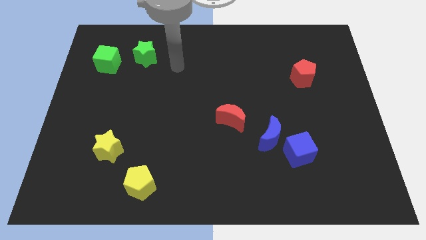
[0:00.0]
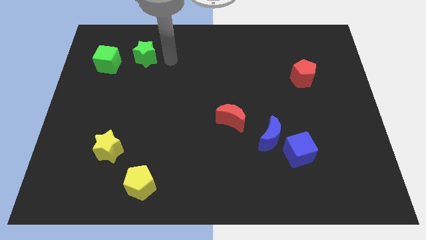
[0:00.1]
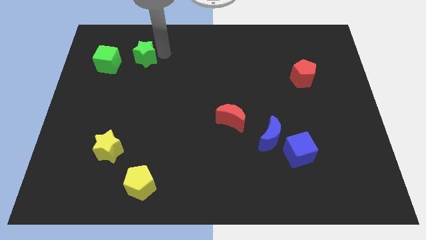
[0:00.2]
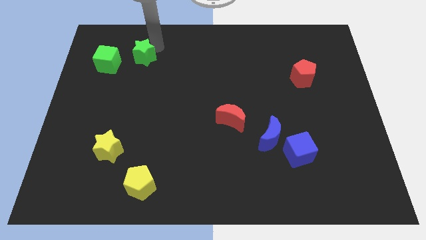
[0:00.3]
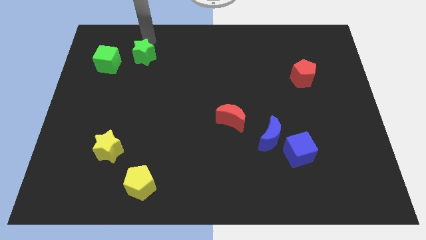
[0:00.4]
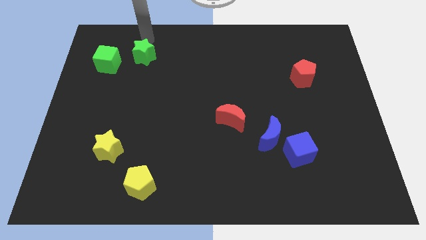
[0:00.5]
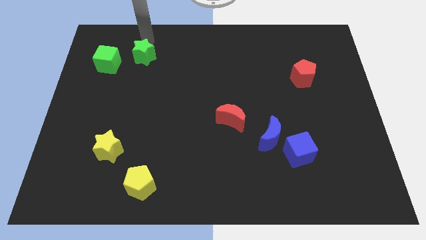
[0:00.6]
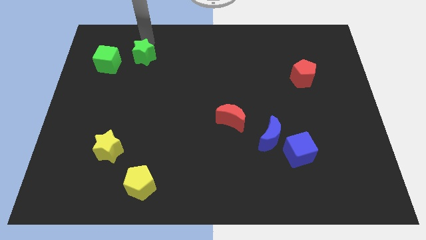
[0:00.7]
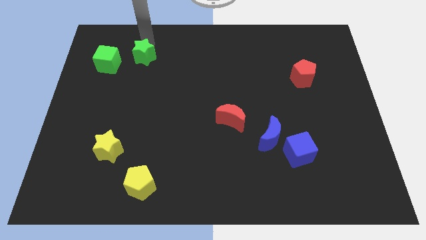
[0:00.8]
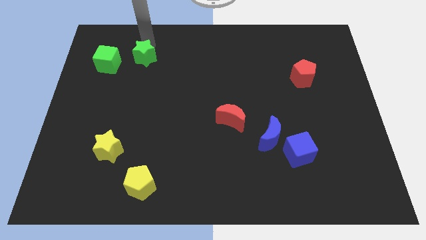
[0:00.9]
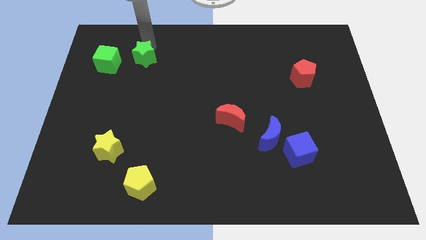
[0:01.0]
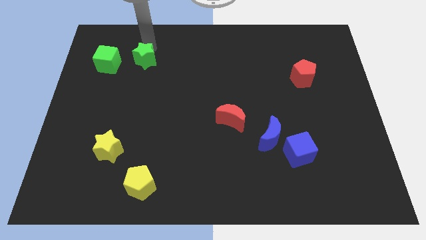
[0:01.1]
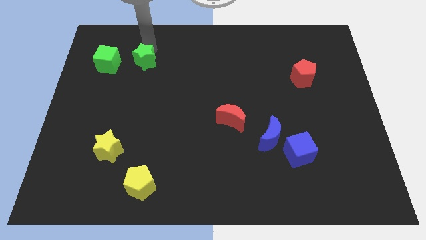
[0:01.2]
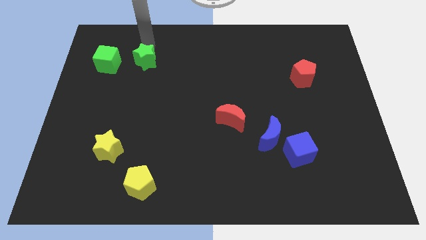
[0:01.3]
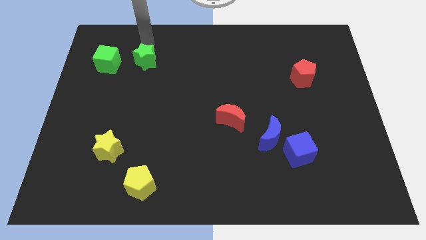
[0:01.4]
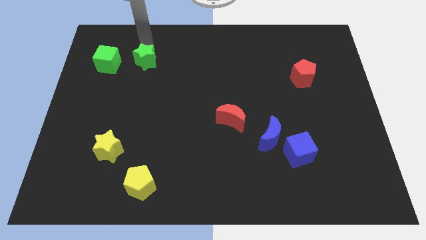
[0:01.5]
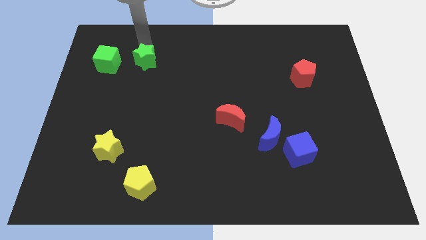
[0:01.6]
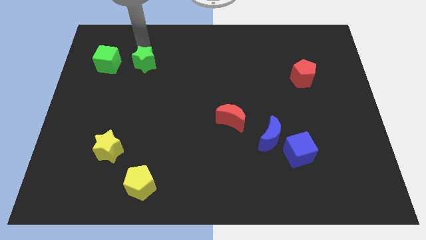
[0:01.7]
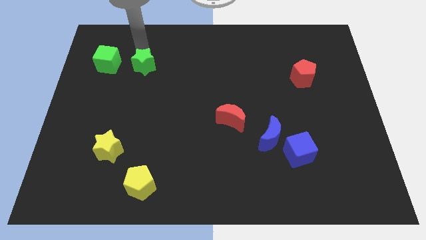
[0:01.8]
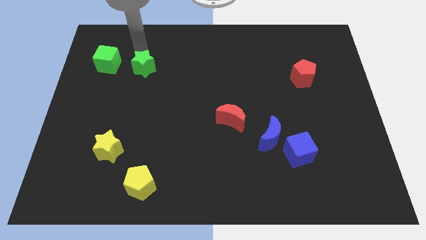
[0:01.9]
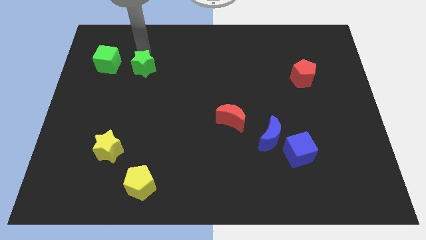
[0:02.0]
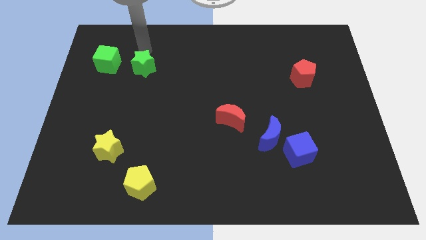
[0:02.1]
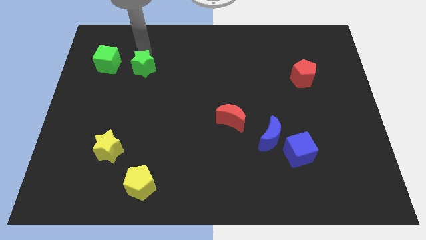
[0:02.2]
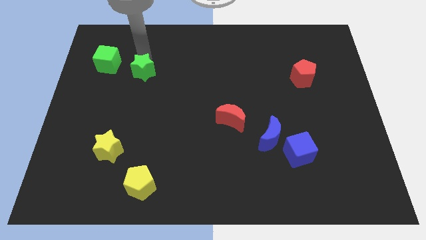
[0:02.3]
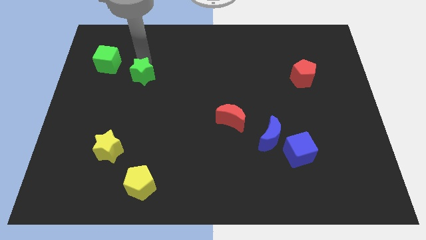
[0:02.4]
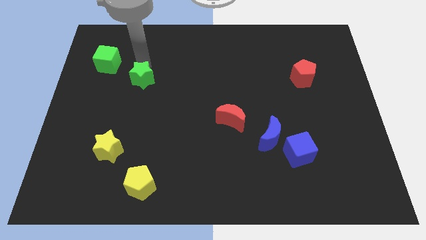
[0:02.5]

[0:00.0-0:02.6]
slide the green star down somewhat

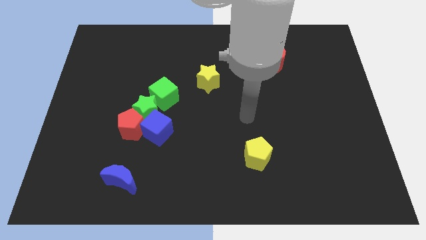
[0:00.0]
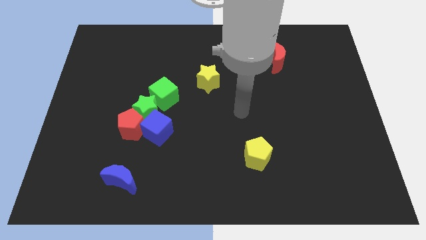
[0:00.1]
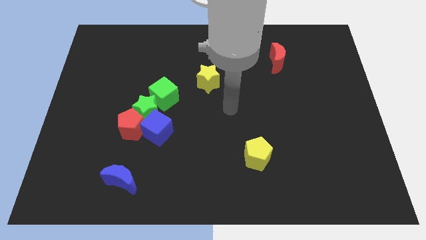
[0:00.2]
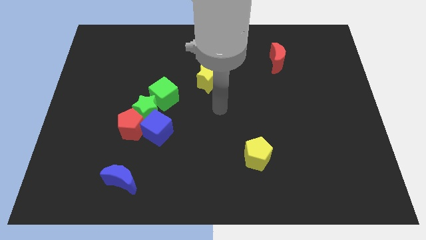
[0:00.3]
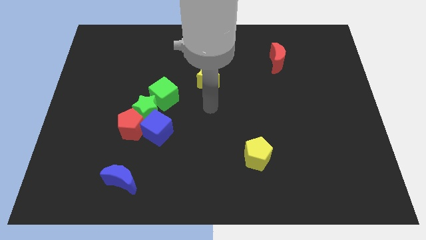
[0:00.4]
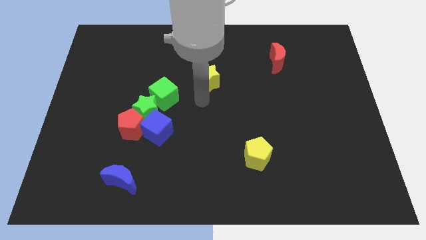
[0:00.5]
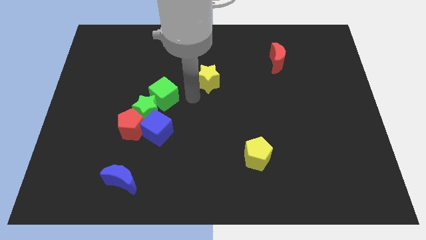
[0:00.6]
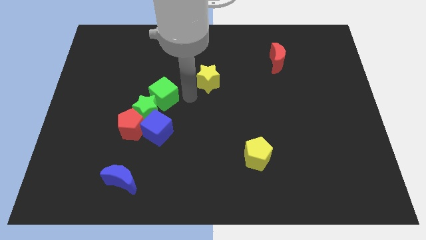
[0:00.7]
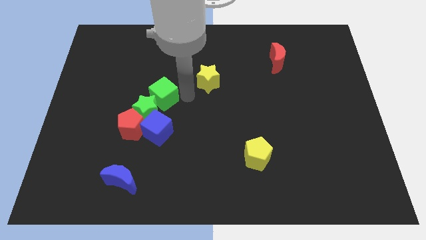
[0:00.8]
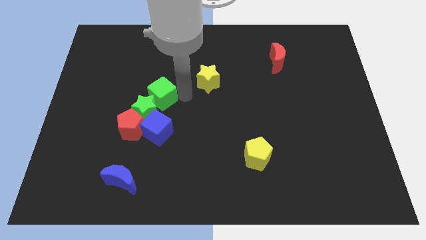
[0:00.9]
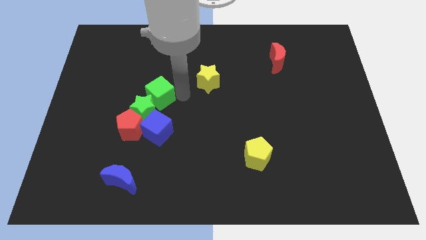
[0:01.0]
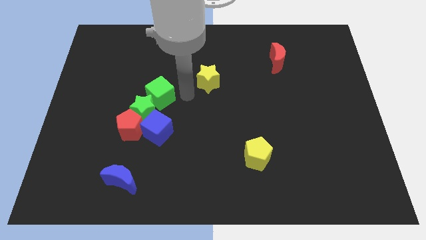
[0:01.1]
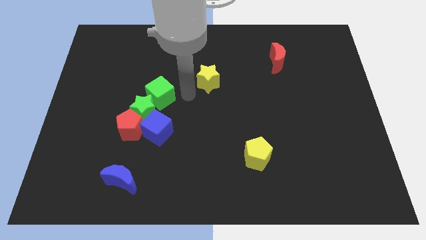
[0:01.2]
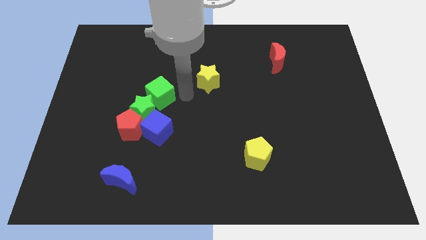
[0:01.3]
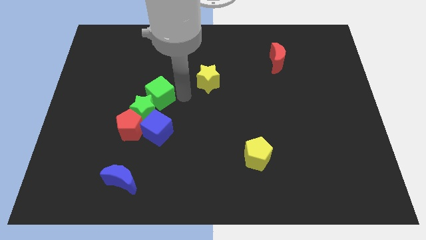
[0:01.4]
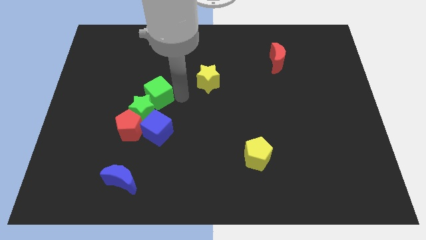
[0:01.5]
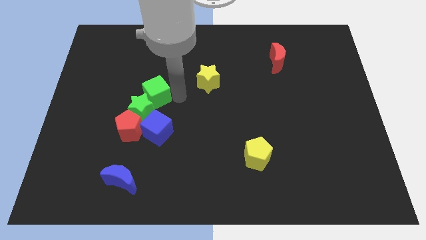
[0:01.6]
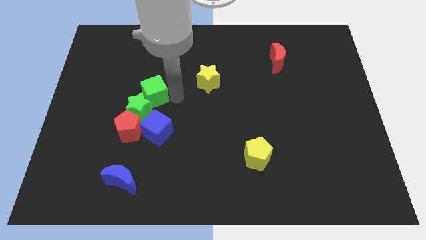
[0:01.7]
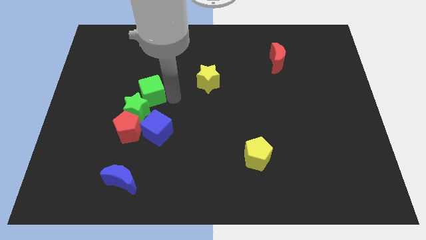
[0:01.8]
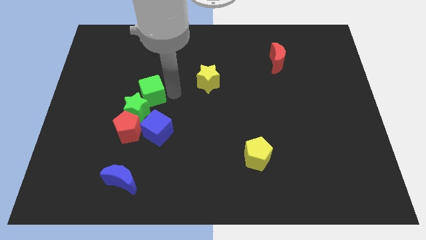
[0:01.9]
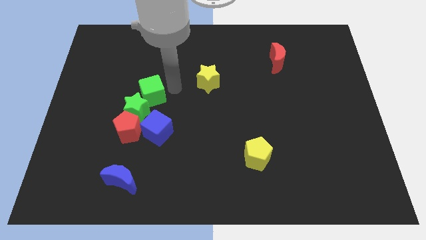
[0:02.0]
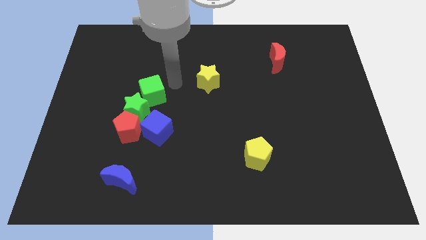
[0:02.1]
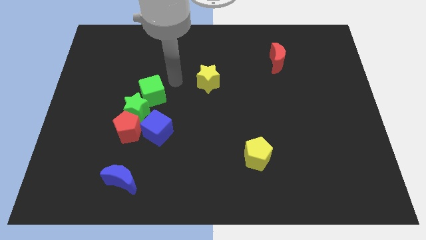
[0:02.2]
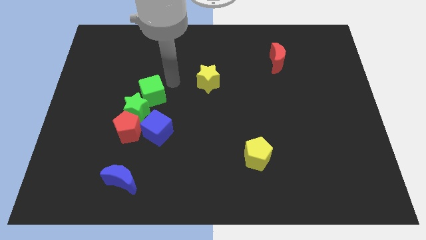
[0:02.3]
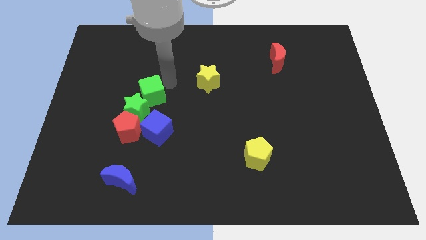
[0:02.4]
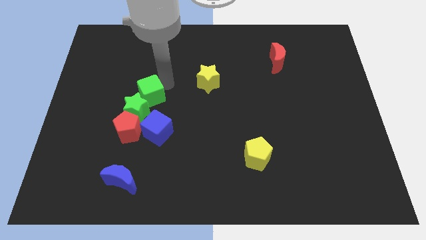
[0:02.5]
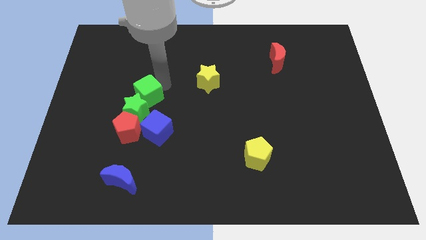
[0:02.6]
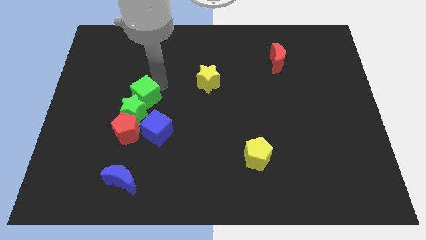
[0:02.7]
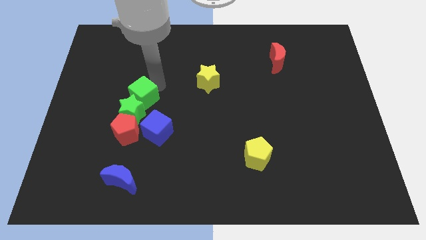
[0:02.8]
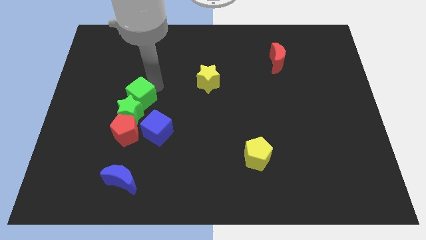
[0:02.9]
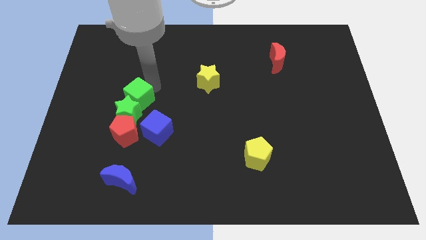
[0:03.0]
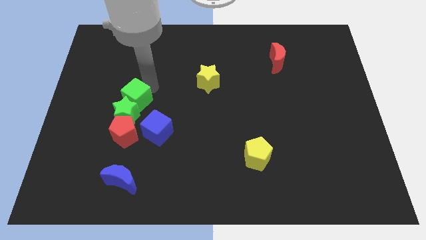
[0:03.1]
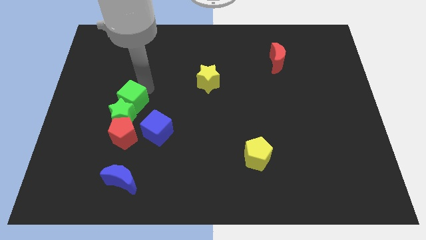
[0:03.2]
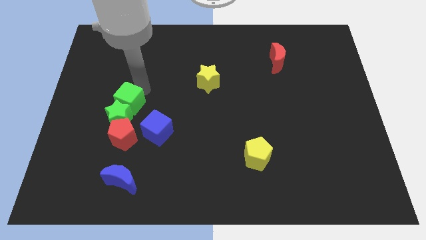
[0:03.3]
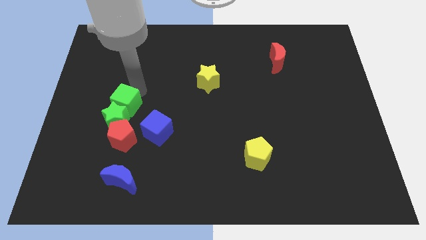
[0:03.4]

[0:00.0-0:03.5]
slide the green cube a little downwards and then left

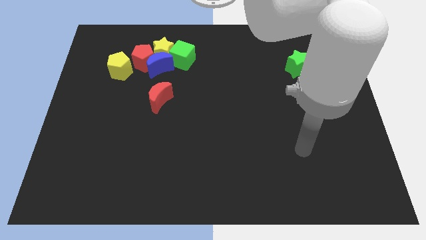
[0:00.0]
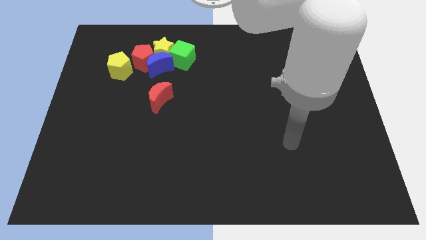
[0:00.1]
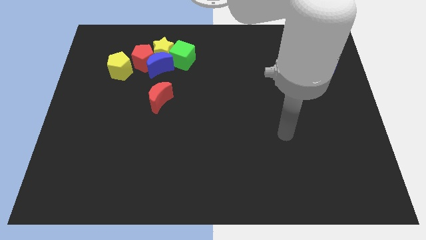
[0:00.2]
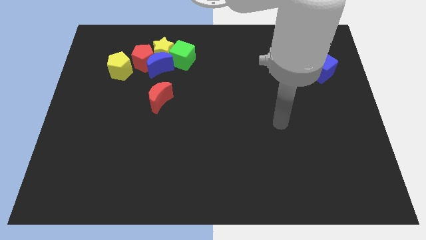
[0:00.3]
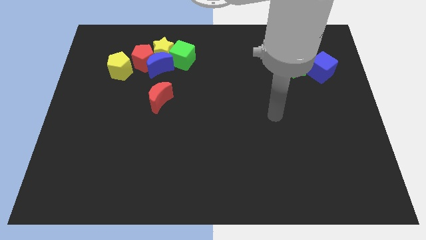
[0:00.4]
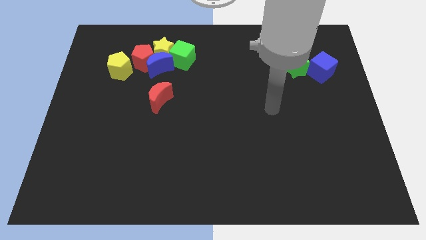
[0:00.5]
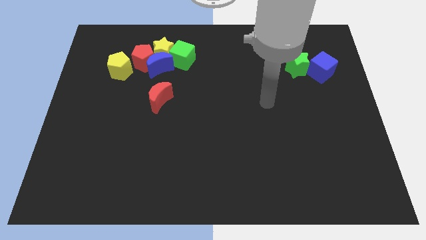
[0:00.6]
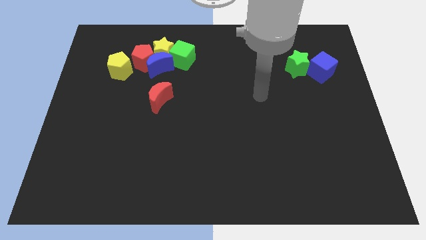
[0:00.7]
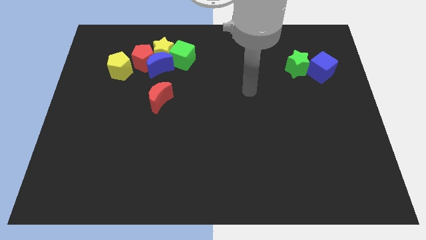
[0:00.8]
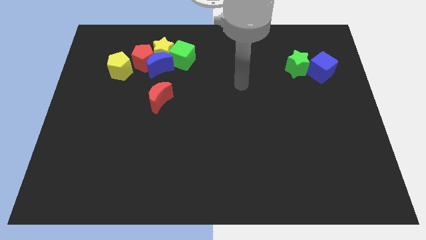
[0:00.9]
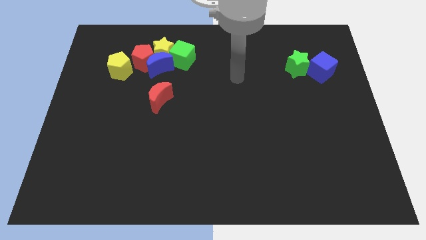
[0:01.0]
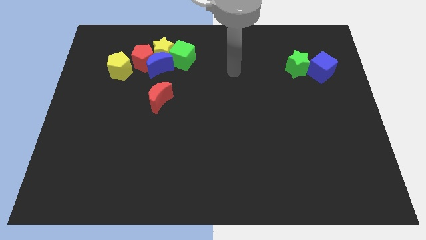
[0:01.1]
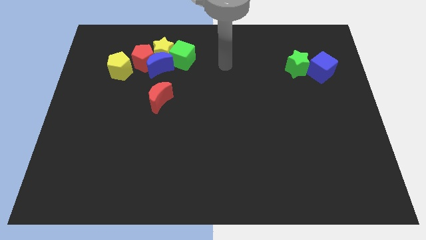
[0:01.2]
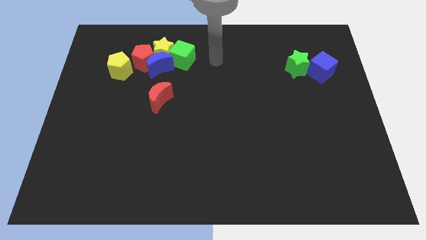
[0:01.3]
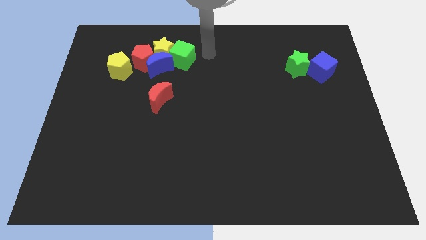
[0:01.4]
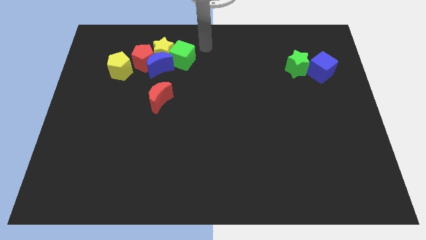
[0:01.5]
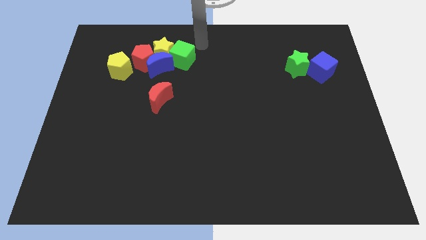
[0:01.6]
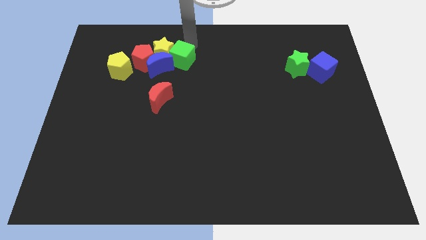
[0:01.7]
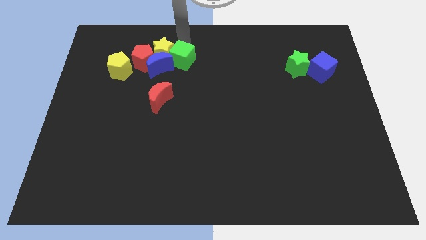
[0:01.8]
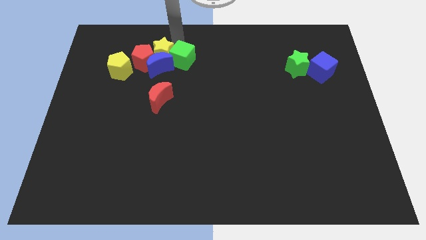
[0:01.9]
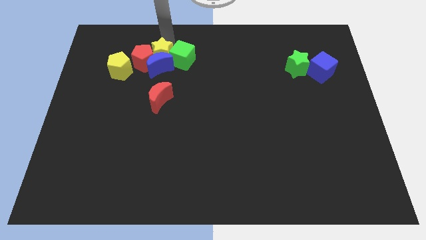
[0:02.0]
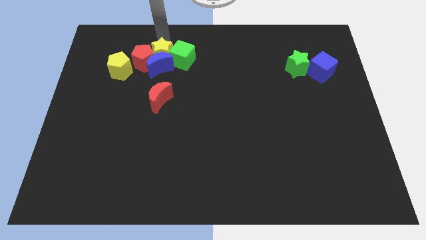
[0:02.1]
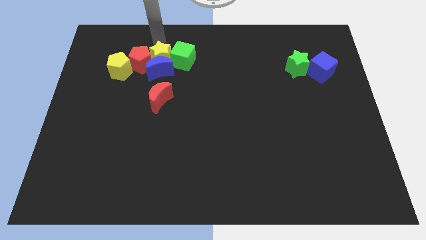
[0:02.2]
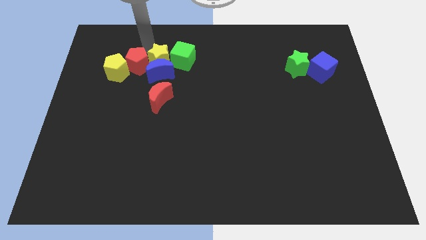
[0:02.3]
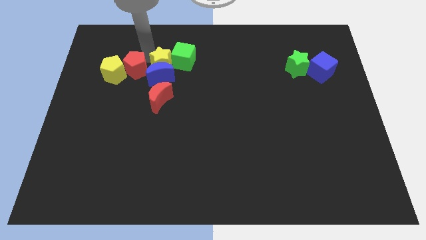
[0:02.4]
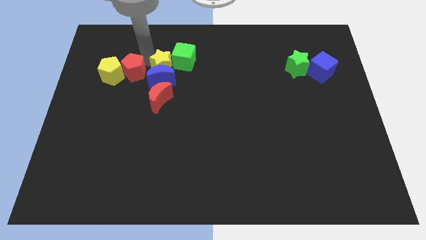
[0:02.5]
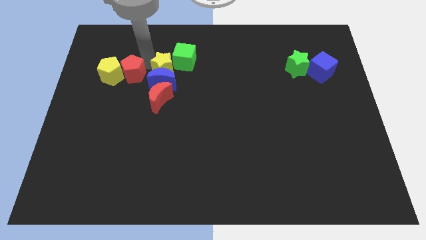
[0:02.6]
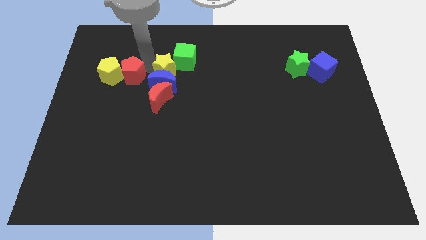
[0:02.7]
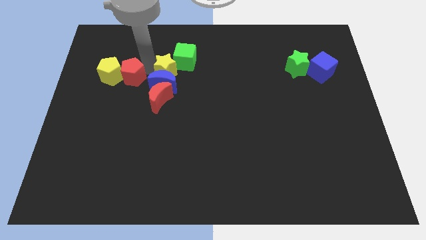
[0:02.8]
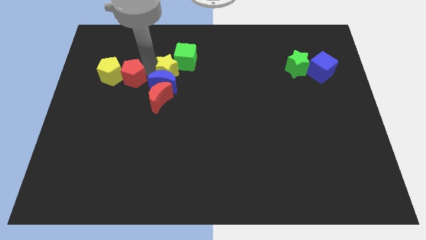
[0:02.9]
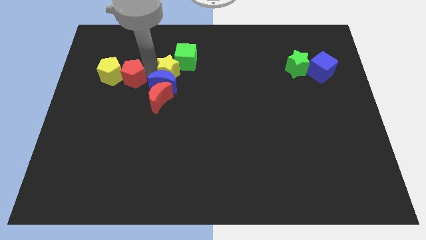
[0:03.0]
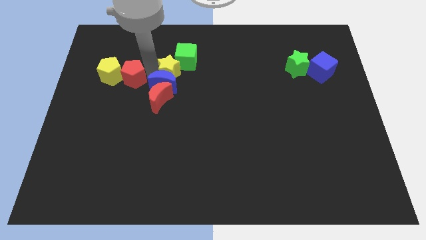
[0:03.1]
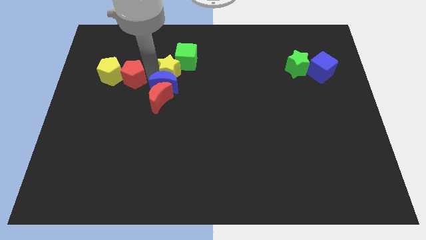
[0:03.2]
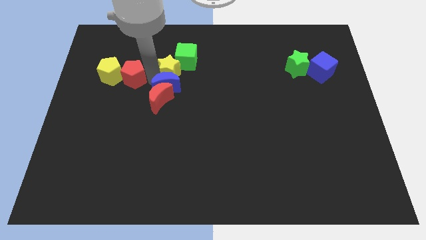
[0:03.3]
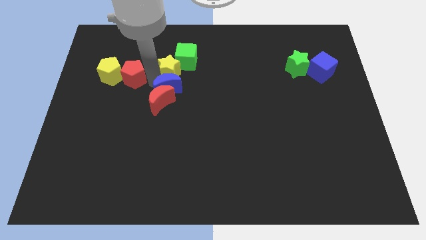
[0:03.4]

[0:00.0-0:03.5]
slide the blue moon a little downwards
